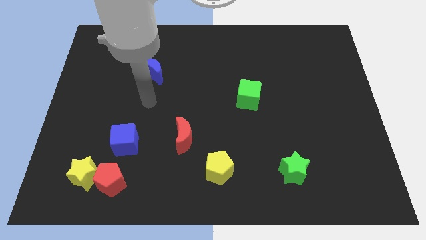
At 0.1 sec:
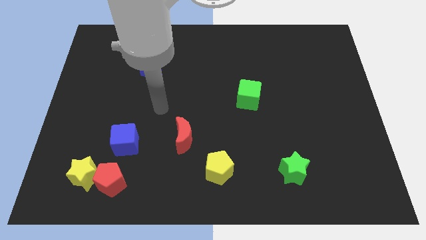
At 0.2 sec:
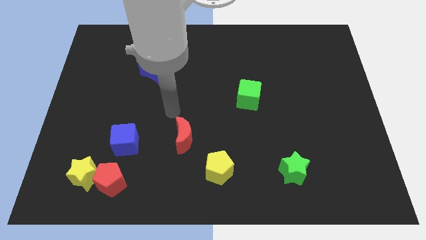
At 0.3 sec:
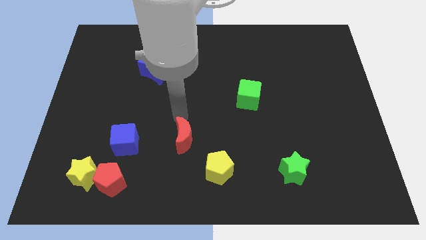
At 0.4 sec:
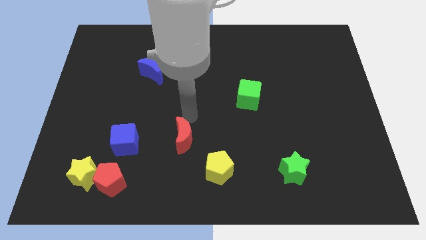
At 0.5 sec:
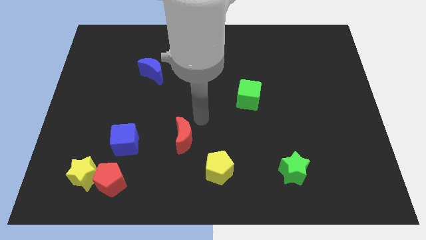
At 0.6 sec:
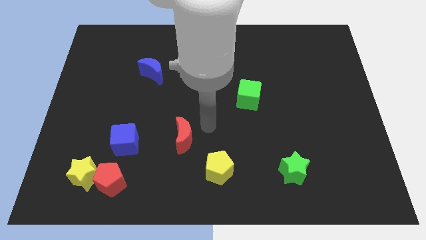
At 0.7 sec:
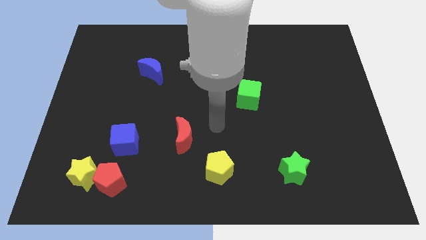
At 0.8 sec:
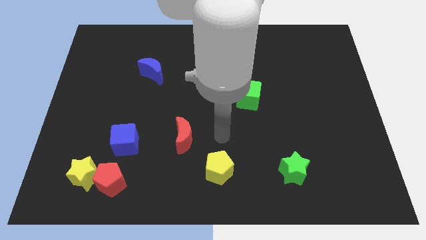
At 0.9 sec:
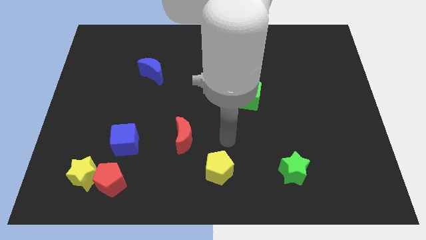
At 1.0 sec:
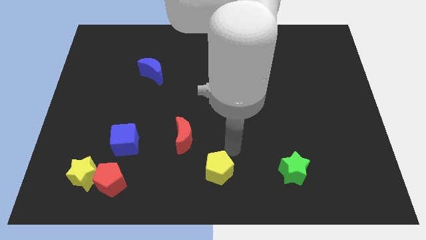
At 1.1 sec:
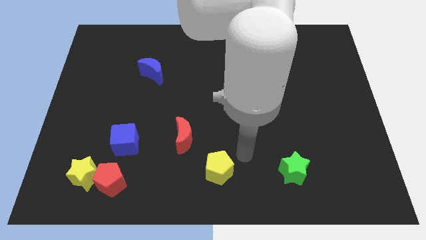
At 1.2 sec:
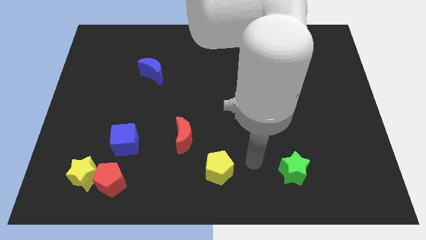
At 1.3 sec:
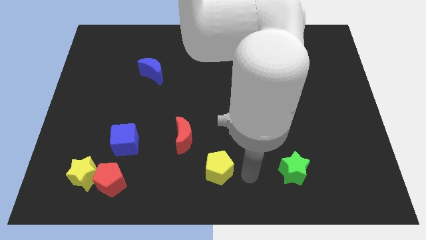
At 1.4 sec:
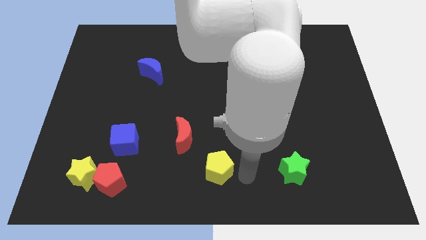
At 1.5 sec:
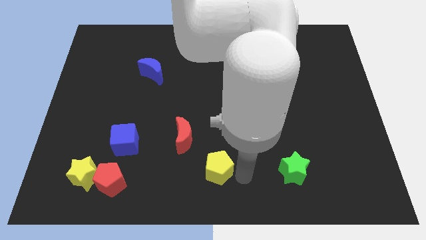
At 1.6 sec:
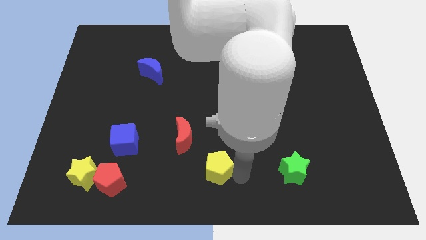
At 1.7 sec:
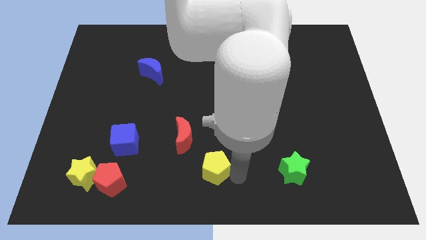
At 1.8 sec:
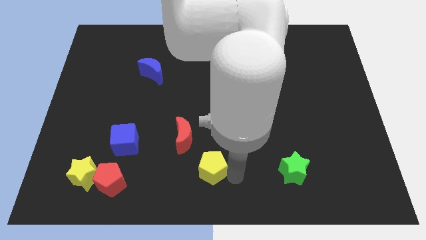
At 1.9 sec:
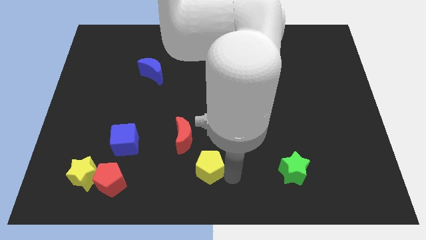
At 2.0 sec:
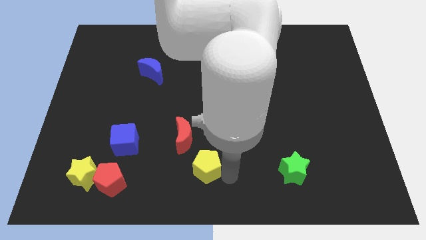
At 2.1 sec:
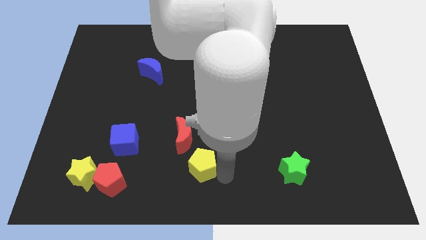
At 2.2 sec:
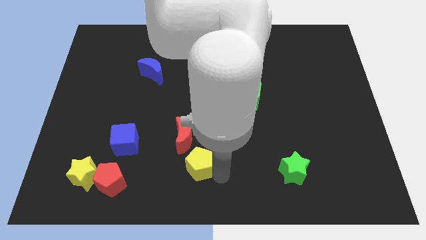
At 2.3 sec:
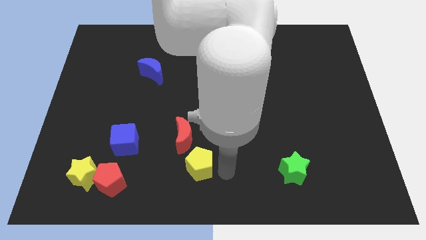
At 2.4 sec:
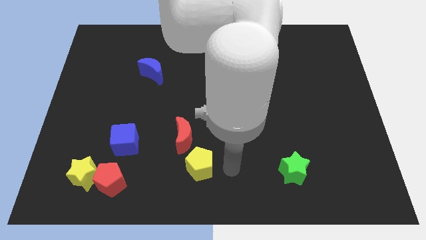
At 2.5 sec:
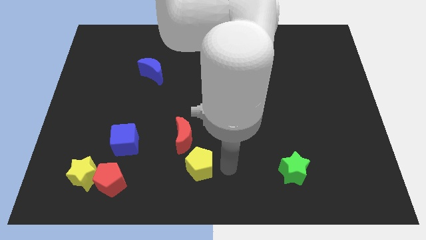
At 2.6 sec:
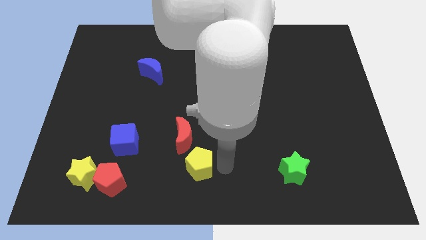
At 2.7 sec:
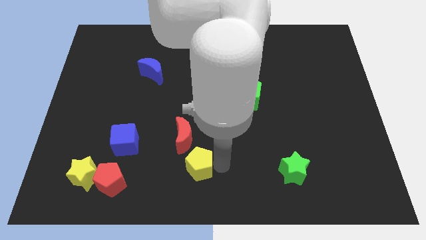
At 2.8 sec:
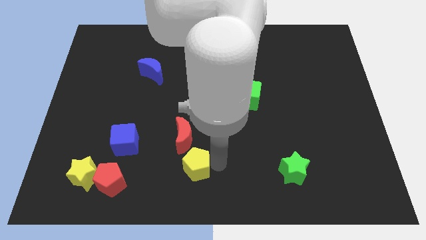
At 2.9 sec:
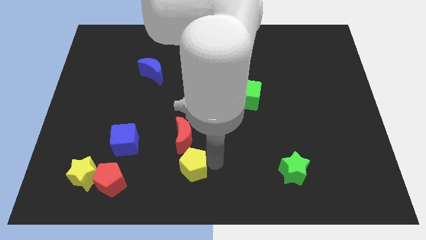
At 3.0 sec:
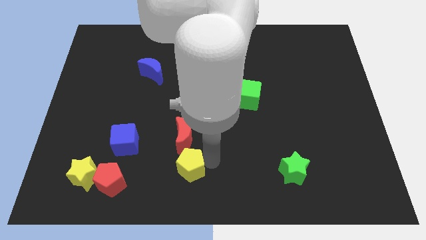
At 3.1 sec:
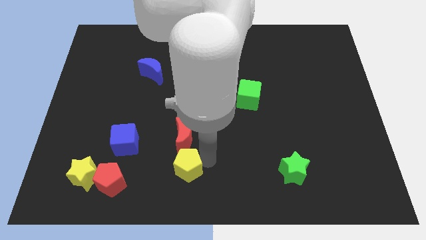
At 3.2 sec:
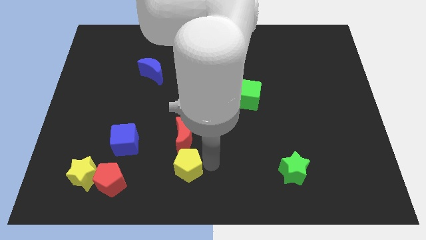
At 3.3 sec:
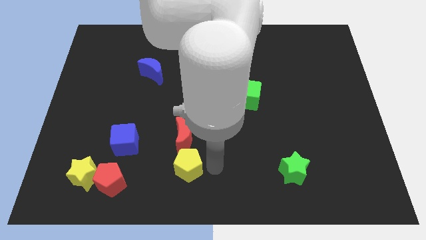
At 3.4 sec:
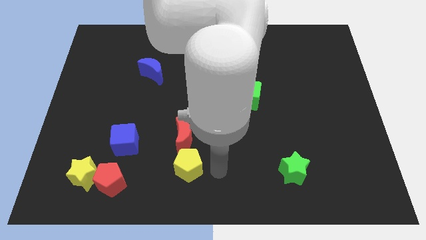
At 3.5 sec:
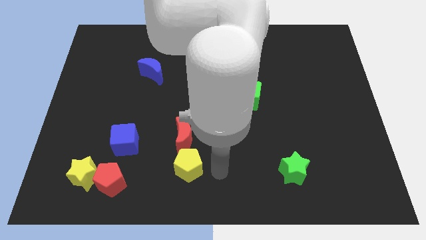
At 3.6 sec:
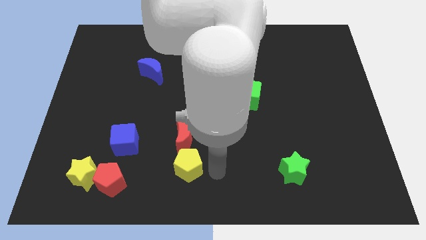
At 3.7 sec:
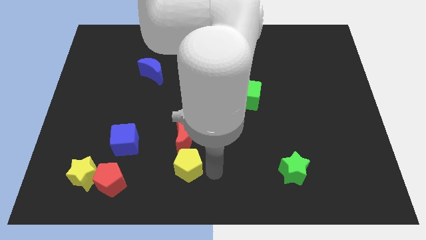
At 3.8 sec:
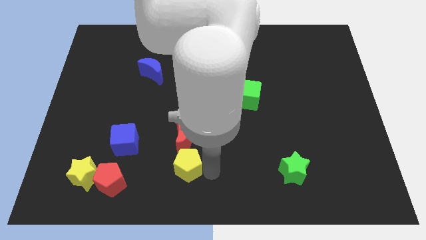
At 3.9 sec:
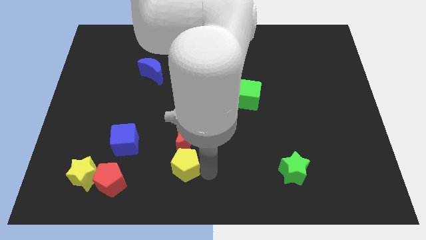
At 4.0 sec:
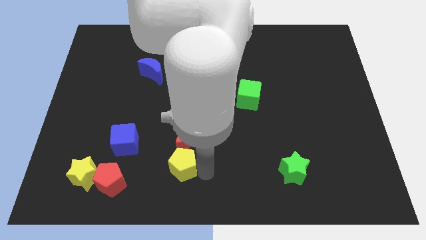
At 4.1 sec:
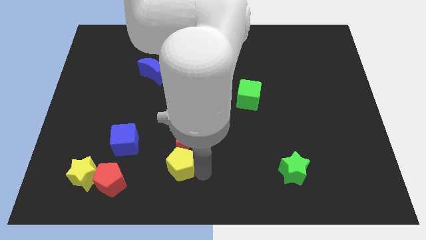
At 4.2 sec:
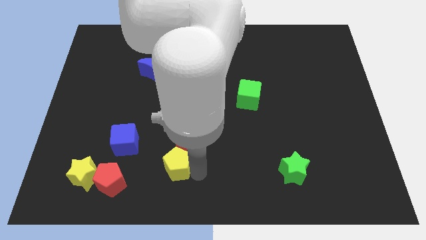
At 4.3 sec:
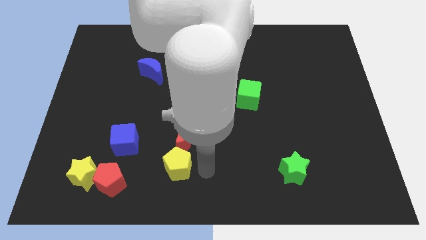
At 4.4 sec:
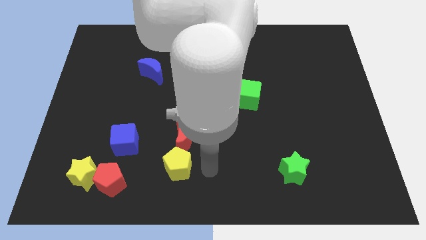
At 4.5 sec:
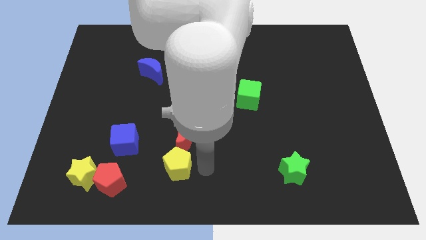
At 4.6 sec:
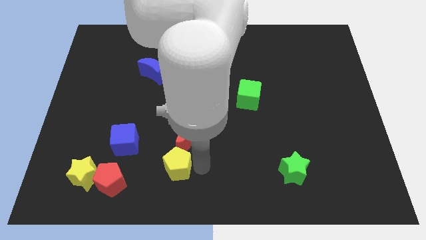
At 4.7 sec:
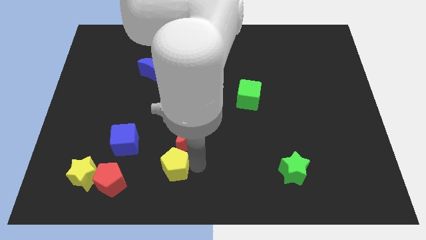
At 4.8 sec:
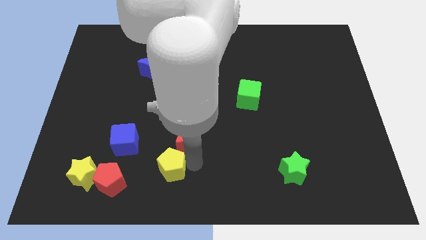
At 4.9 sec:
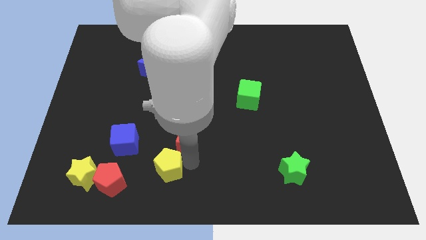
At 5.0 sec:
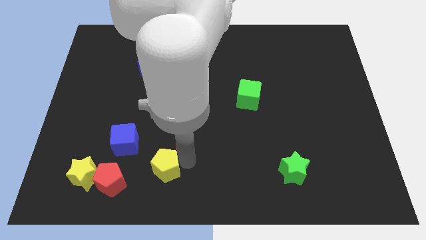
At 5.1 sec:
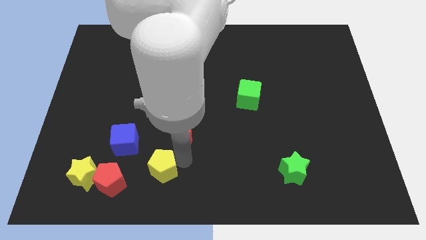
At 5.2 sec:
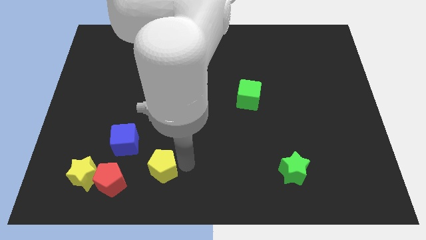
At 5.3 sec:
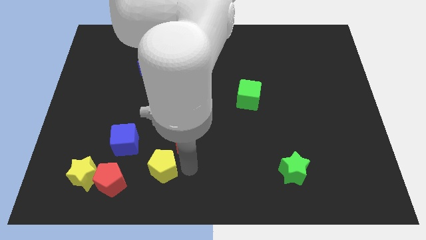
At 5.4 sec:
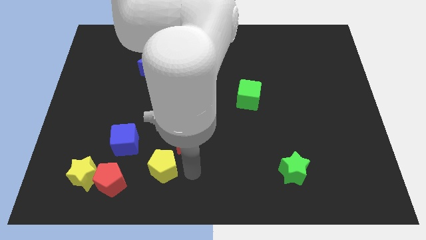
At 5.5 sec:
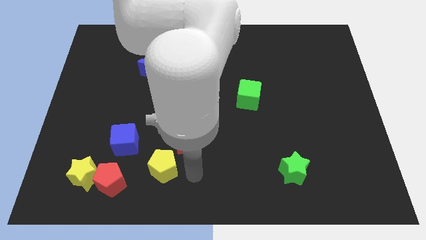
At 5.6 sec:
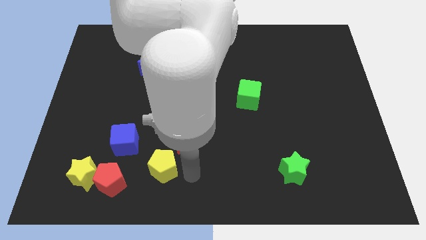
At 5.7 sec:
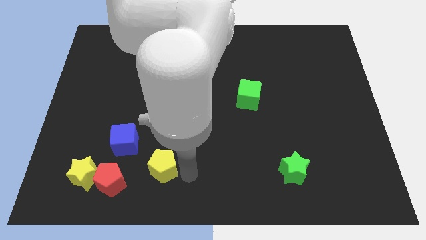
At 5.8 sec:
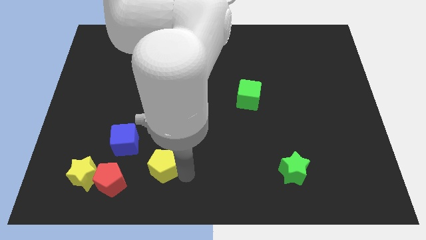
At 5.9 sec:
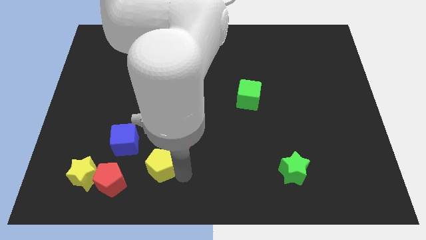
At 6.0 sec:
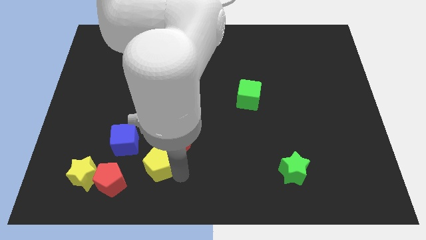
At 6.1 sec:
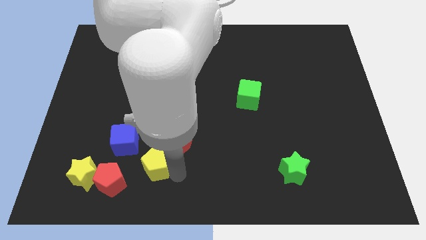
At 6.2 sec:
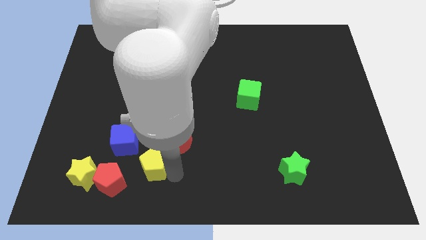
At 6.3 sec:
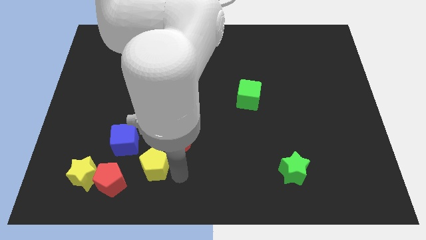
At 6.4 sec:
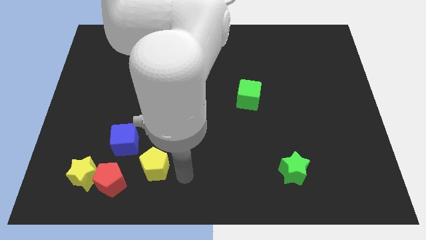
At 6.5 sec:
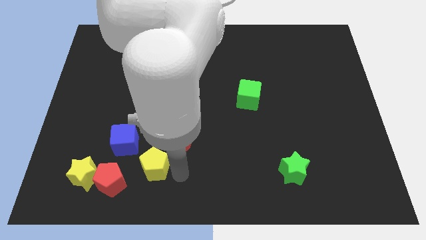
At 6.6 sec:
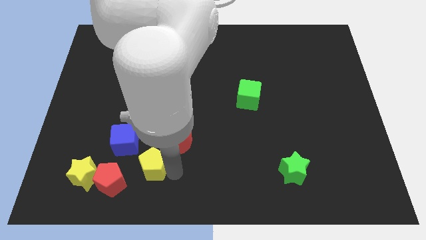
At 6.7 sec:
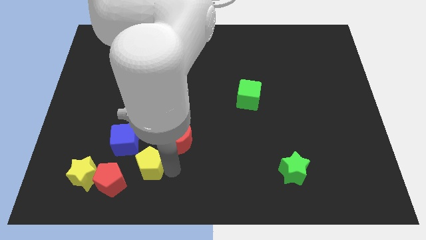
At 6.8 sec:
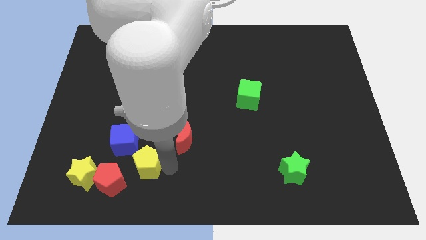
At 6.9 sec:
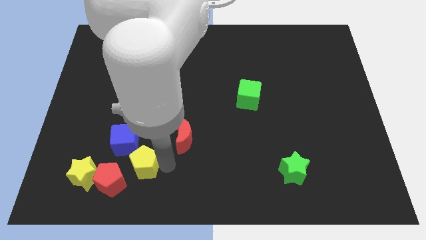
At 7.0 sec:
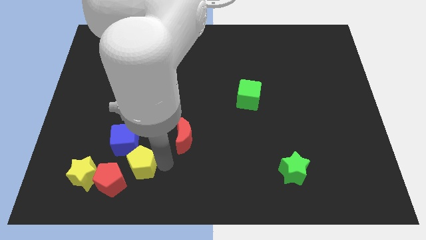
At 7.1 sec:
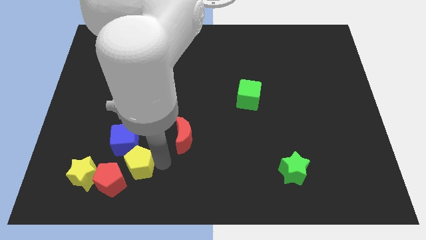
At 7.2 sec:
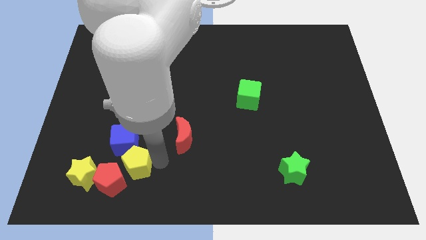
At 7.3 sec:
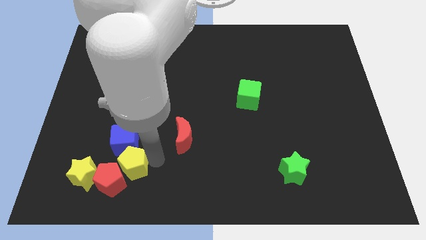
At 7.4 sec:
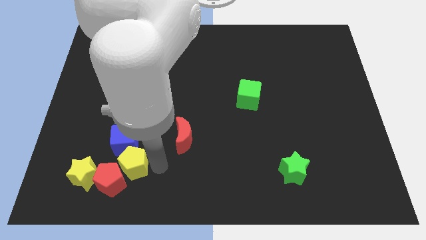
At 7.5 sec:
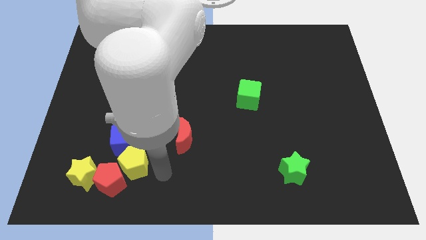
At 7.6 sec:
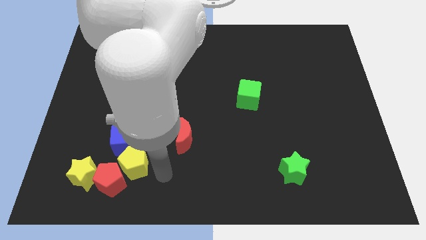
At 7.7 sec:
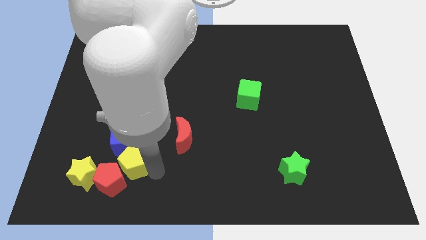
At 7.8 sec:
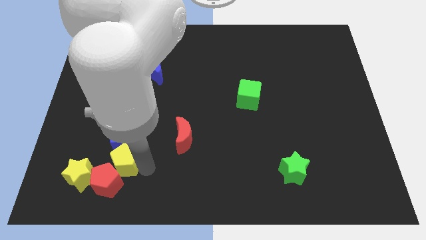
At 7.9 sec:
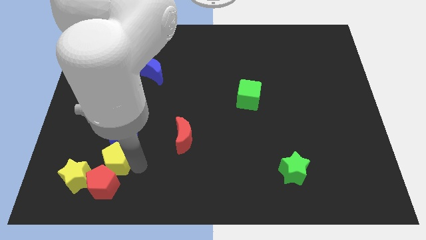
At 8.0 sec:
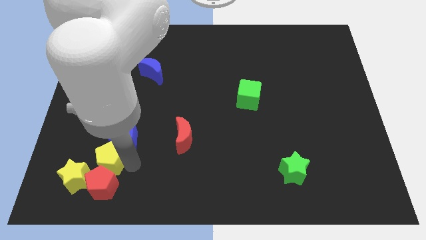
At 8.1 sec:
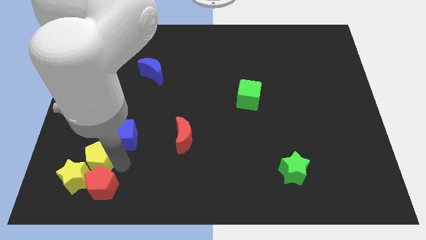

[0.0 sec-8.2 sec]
push the yellow pentagon to the top of the yellow star
